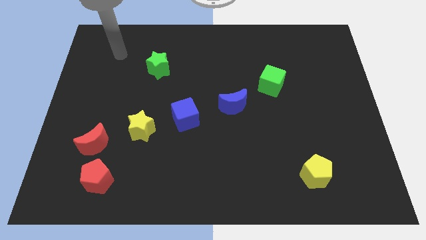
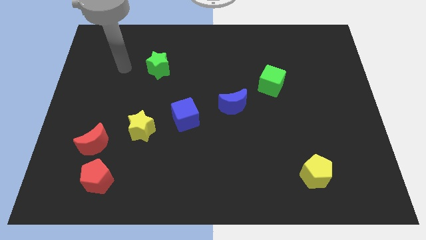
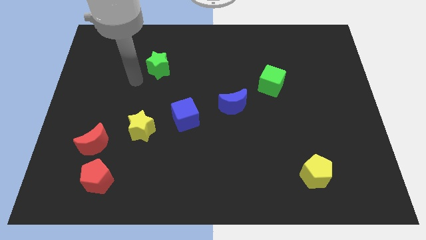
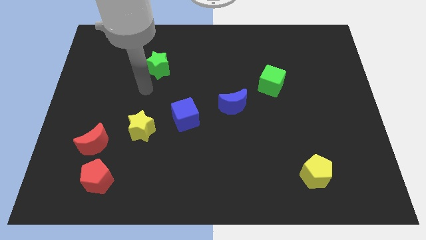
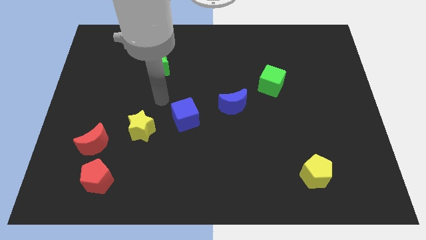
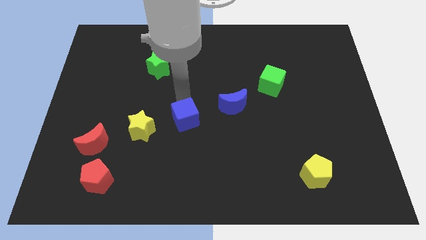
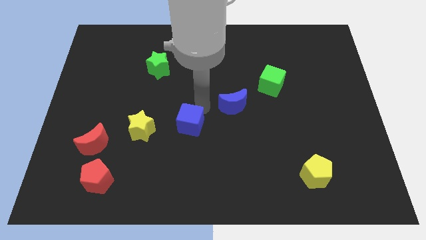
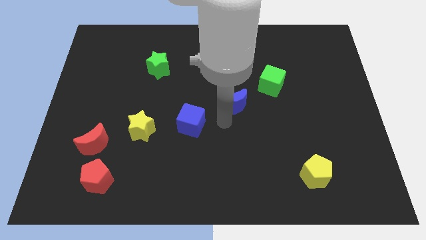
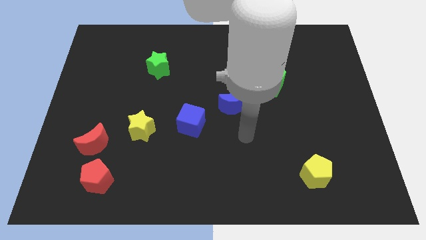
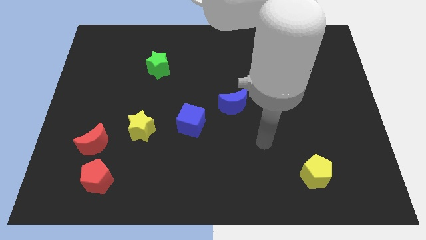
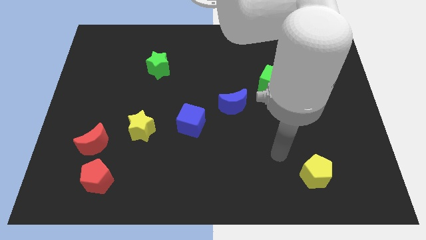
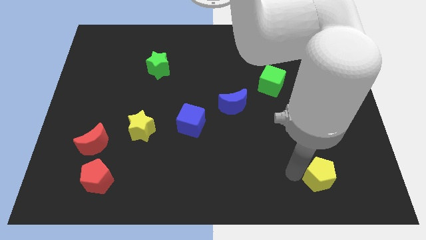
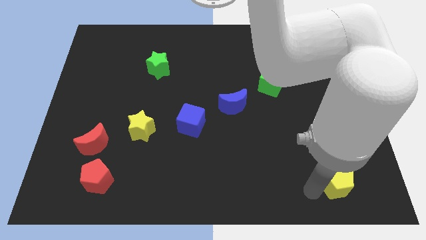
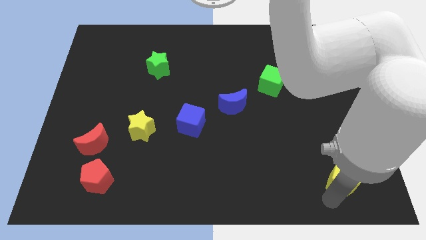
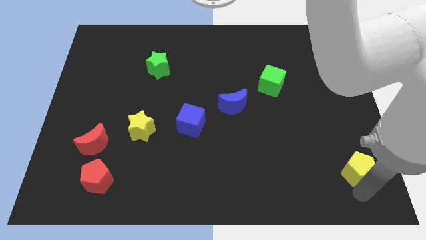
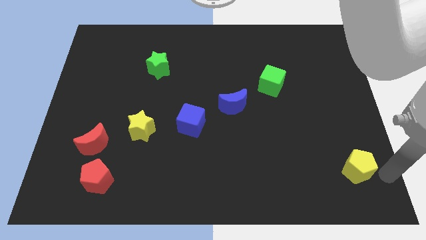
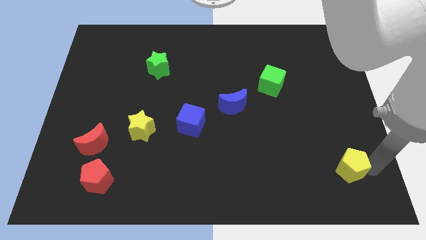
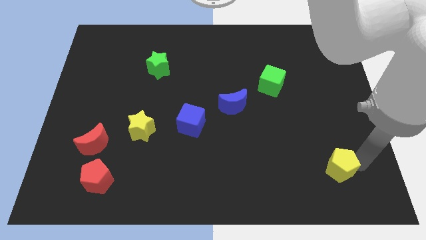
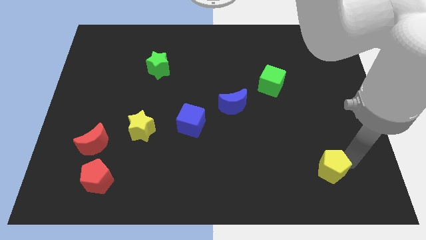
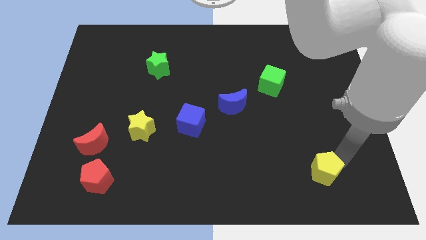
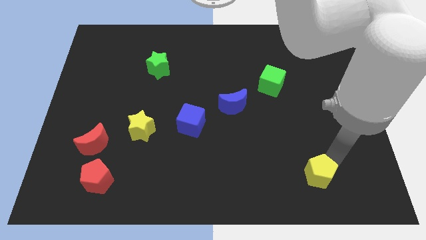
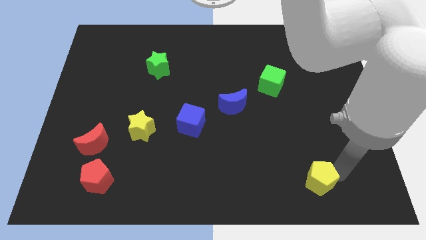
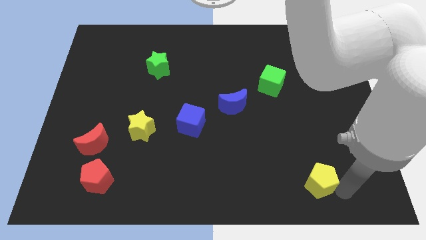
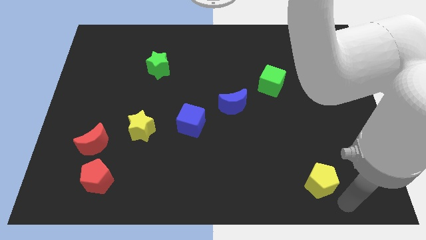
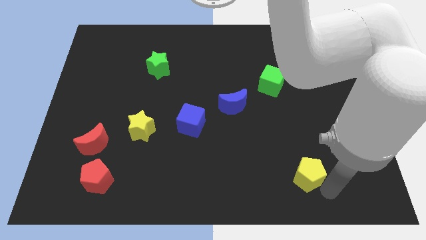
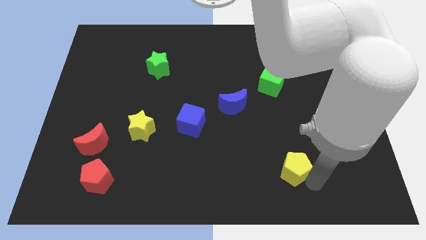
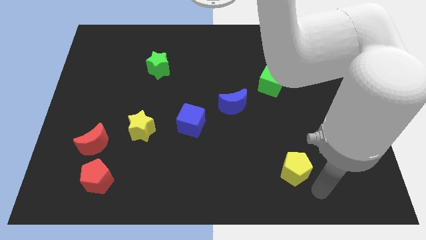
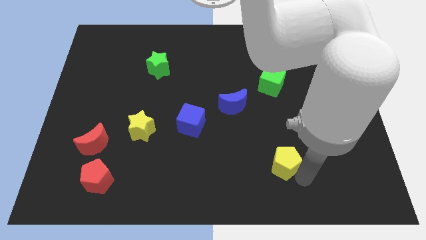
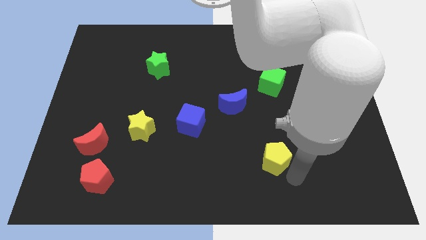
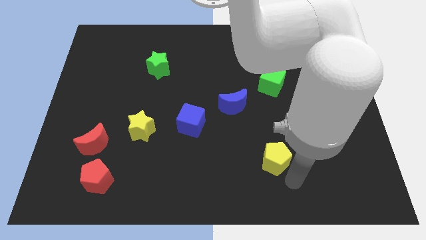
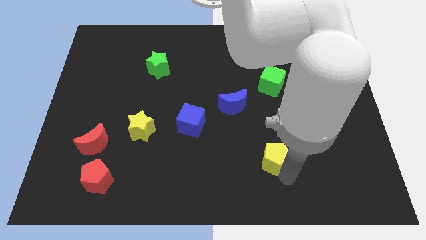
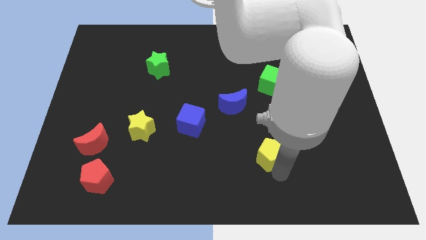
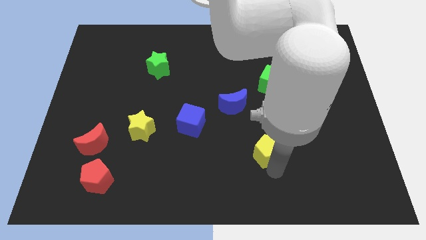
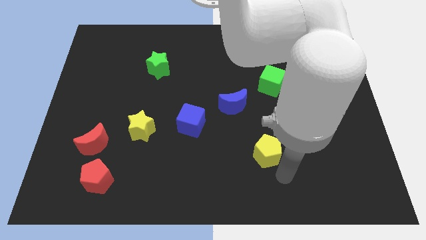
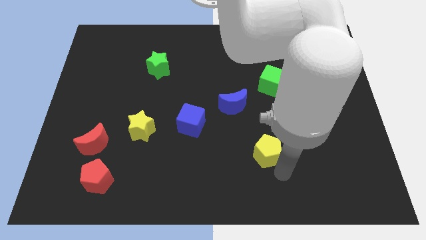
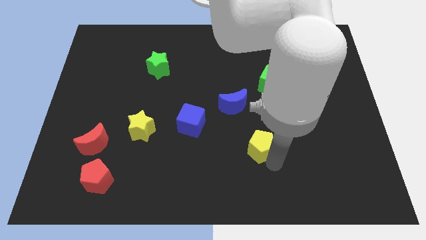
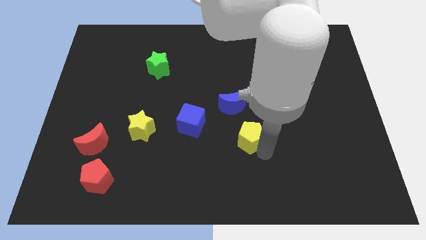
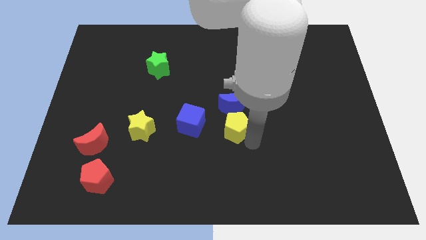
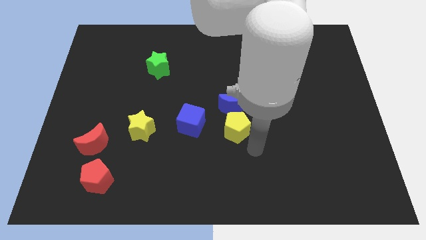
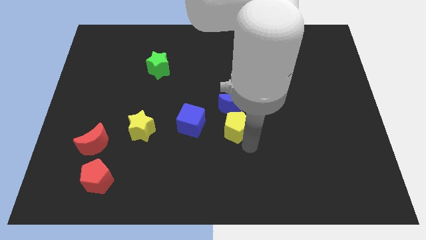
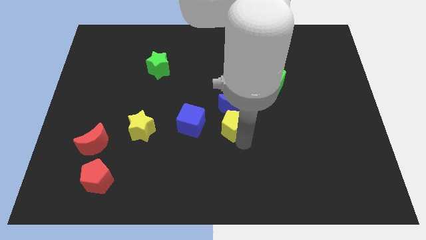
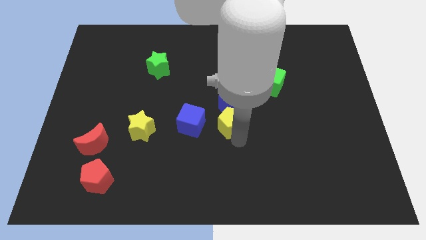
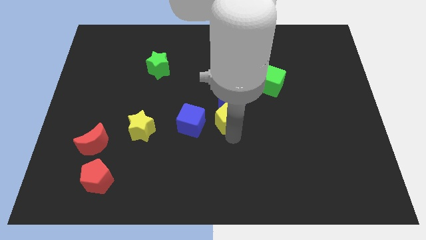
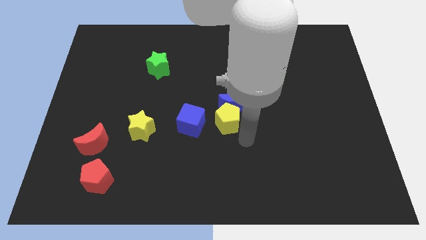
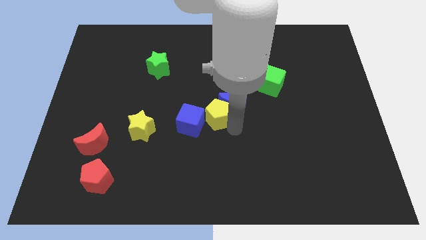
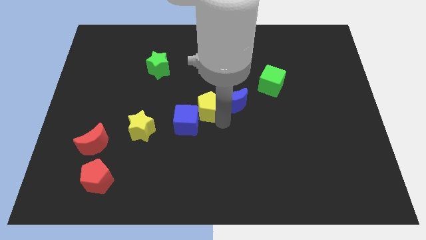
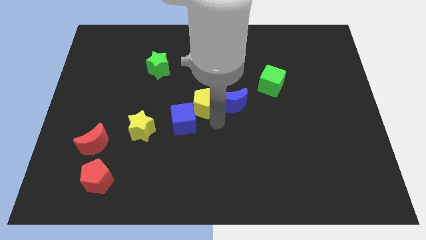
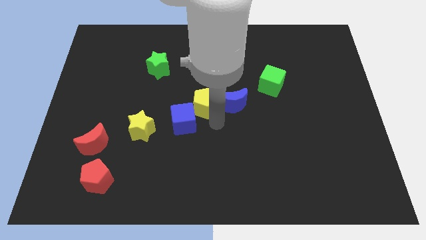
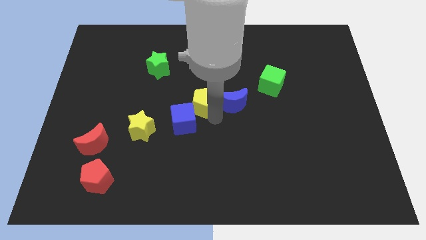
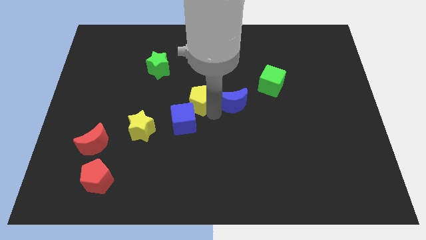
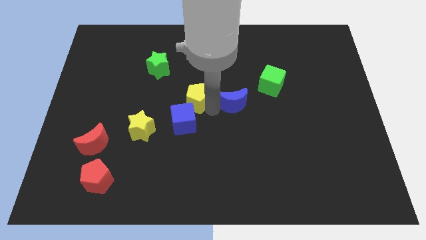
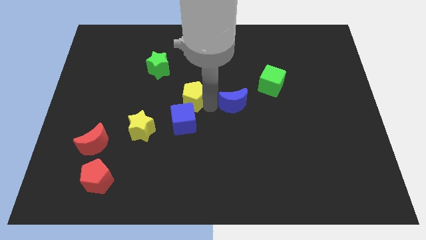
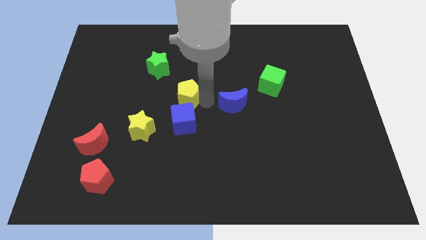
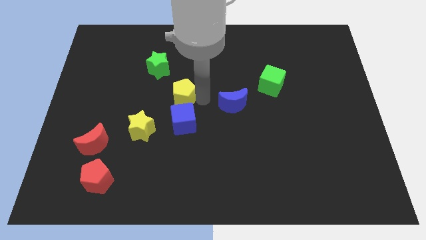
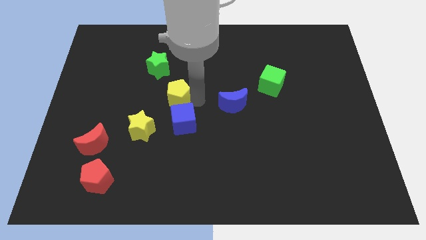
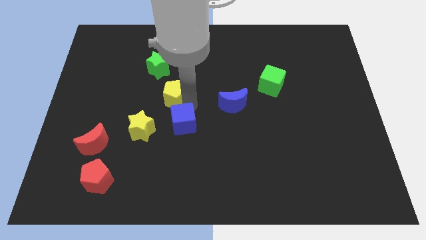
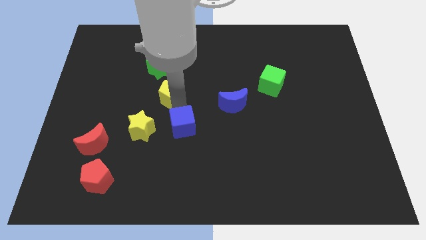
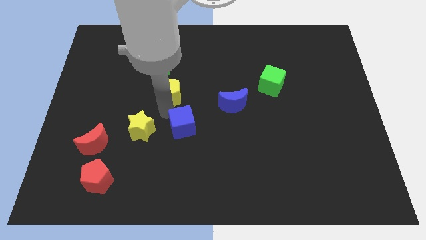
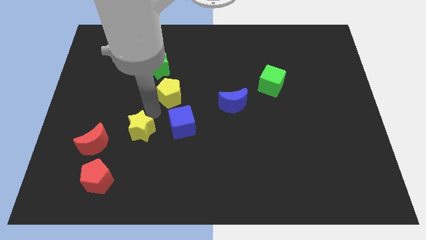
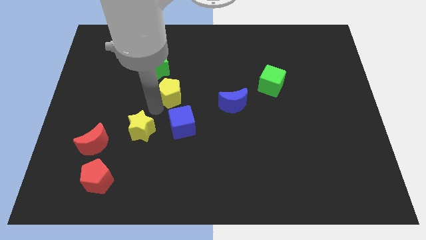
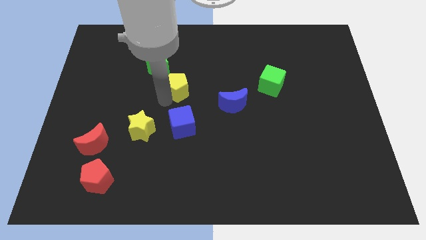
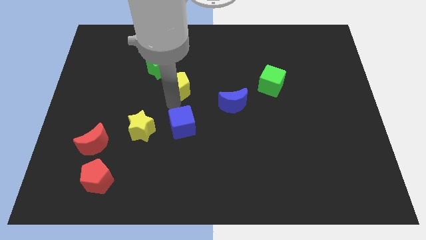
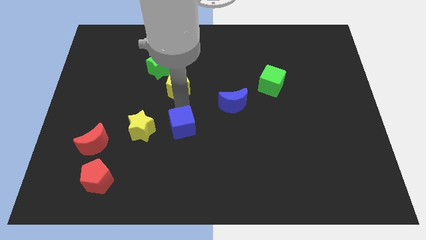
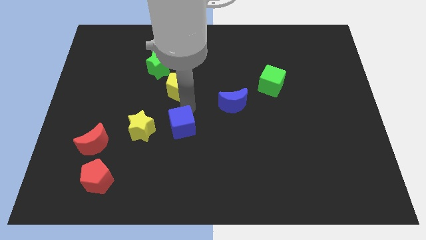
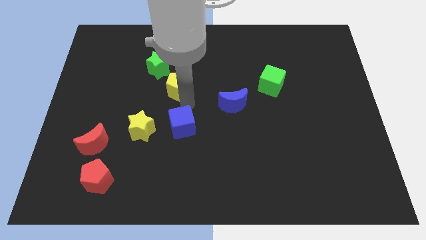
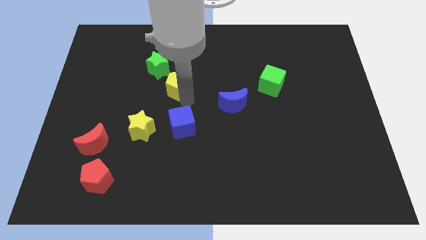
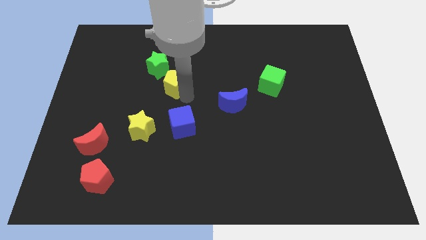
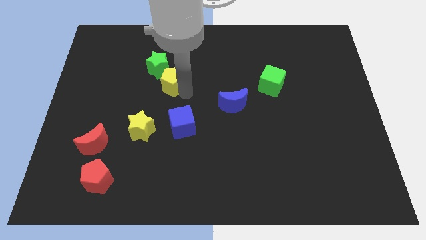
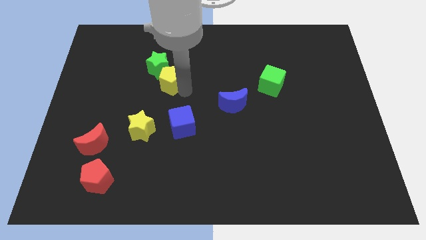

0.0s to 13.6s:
push the yellow pentagon towards the green star
